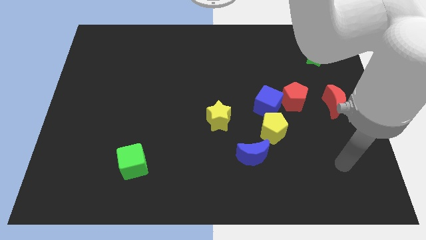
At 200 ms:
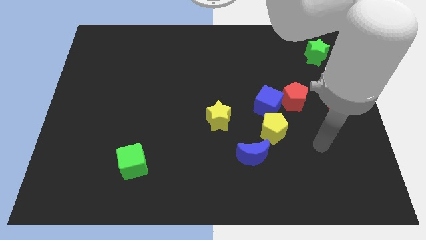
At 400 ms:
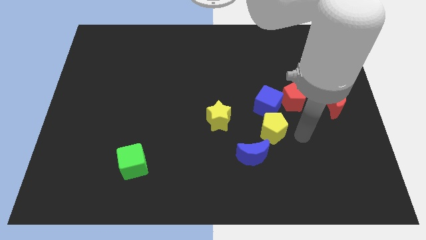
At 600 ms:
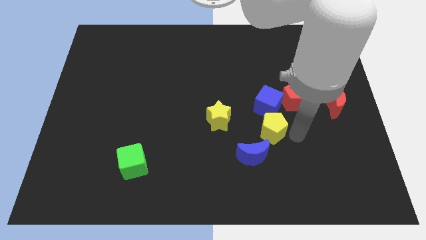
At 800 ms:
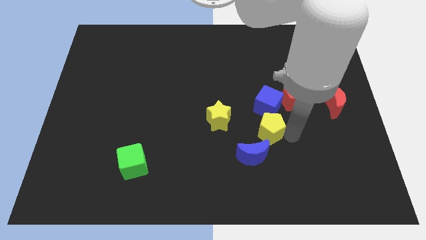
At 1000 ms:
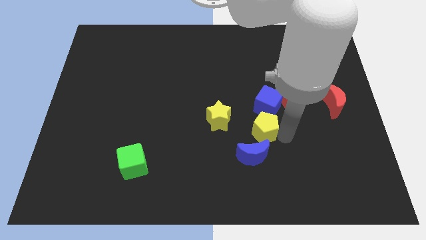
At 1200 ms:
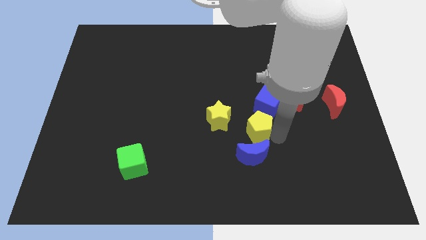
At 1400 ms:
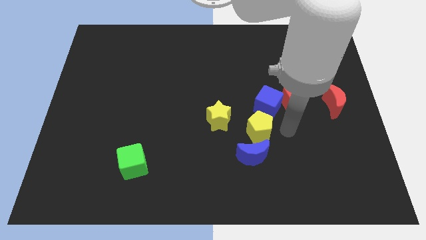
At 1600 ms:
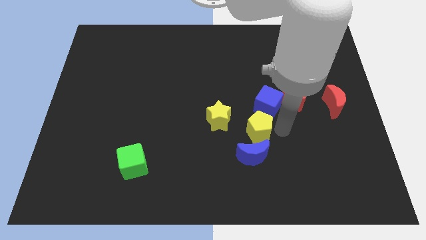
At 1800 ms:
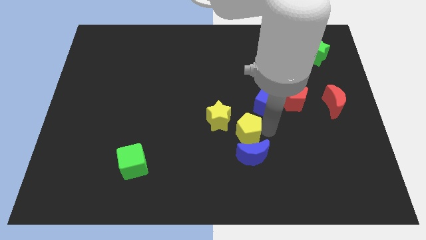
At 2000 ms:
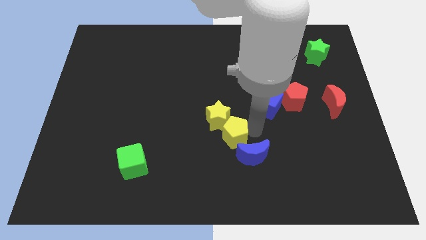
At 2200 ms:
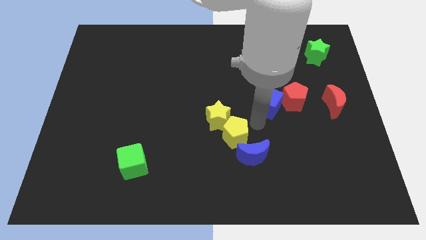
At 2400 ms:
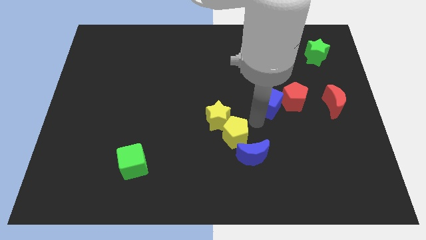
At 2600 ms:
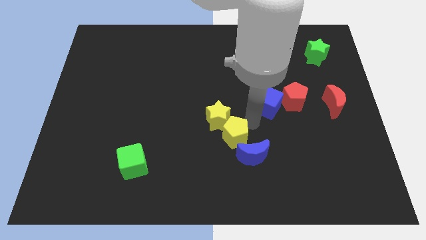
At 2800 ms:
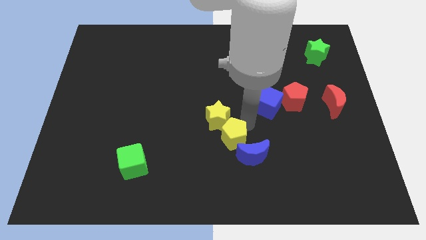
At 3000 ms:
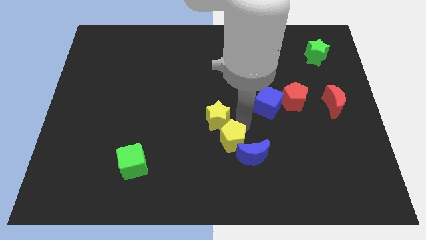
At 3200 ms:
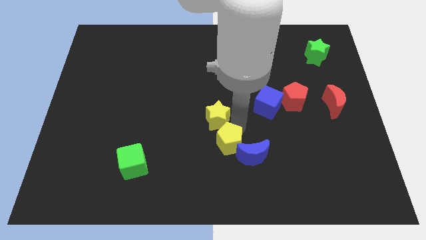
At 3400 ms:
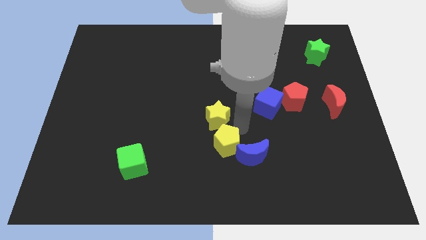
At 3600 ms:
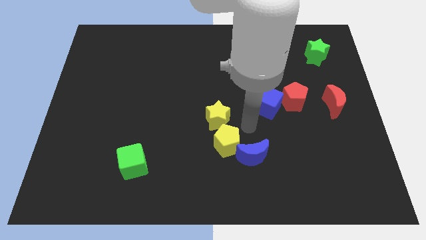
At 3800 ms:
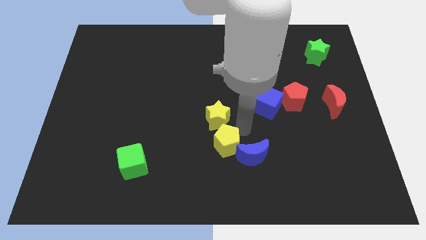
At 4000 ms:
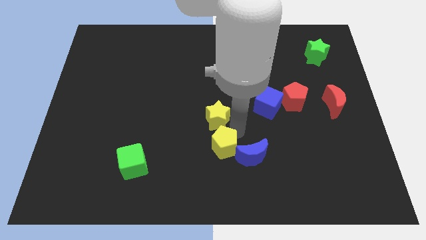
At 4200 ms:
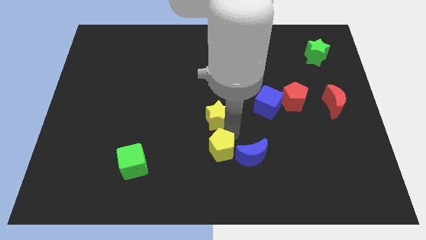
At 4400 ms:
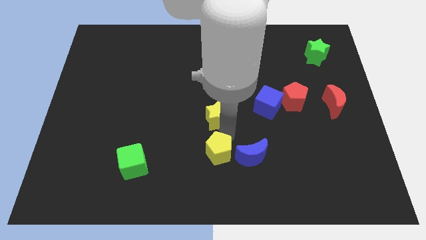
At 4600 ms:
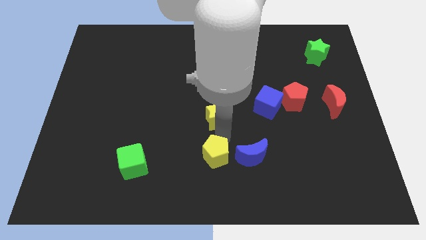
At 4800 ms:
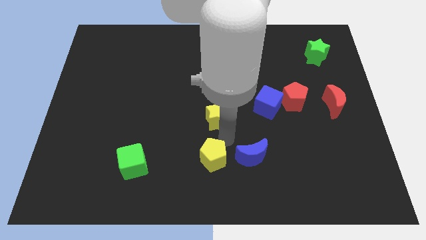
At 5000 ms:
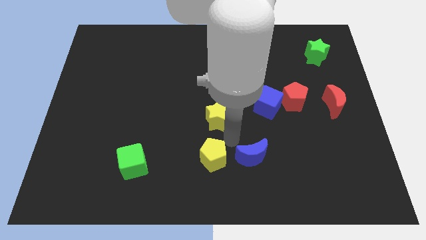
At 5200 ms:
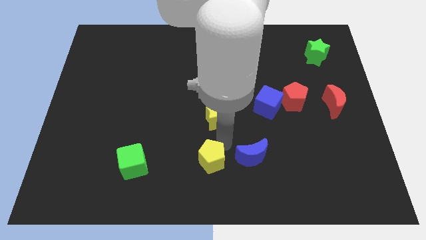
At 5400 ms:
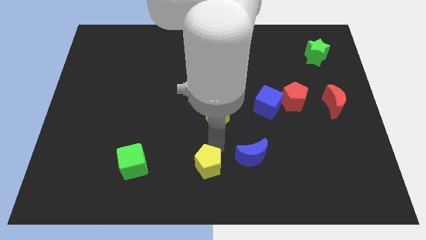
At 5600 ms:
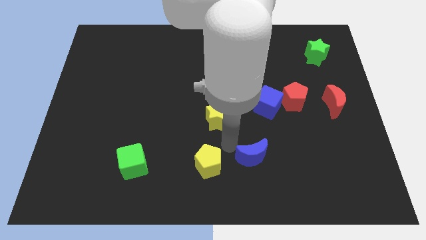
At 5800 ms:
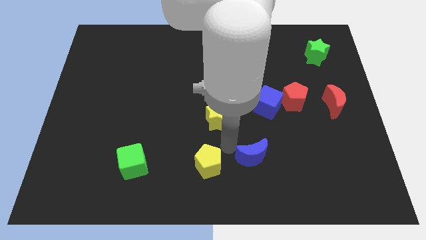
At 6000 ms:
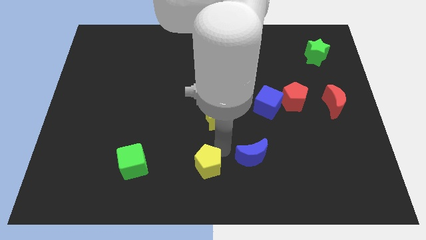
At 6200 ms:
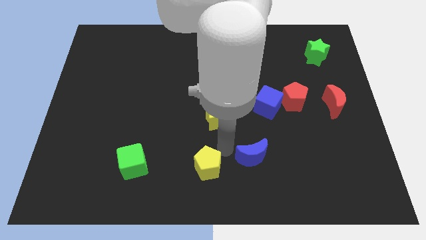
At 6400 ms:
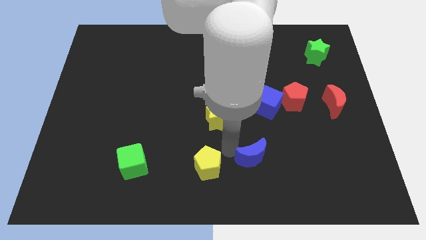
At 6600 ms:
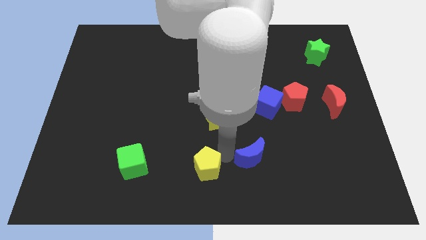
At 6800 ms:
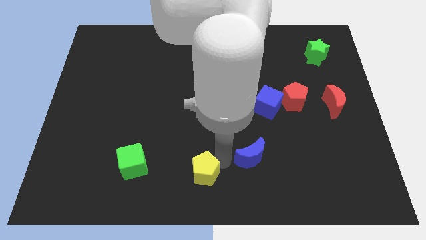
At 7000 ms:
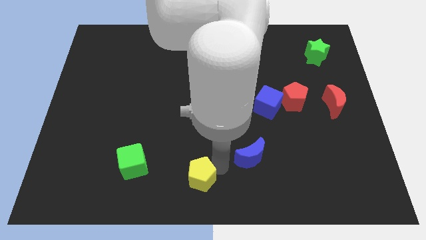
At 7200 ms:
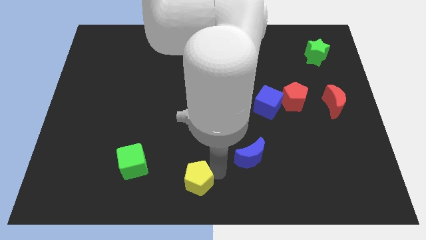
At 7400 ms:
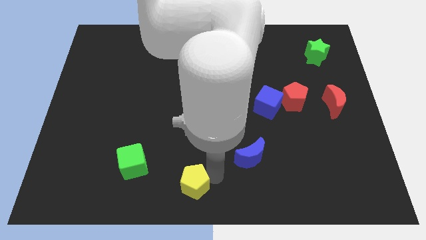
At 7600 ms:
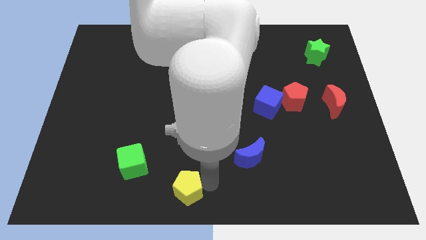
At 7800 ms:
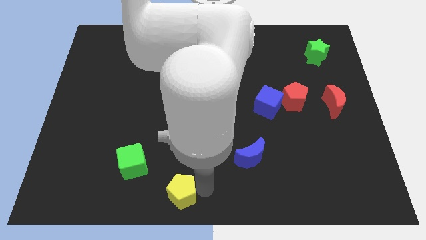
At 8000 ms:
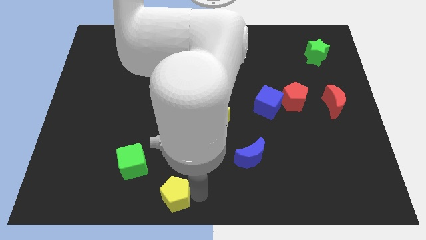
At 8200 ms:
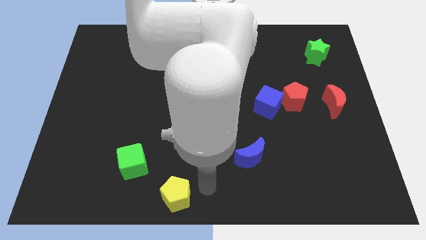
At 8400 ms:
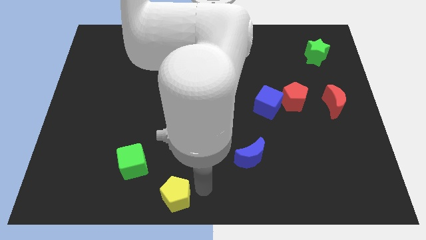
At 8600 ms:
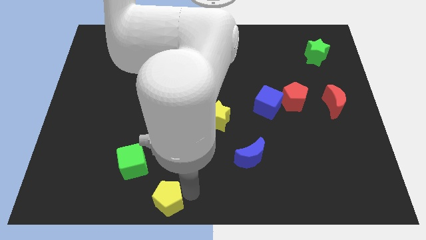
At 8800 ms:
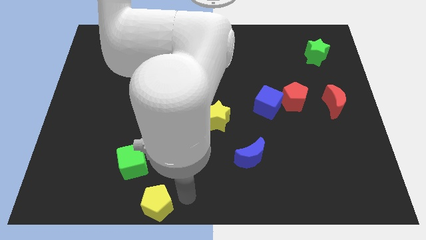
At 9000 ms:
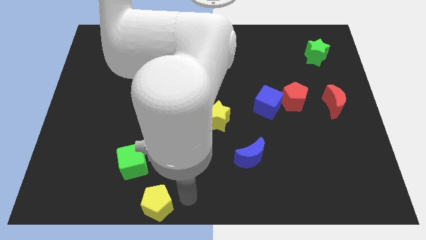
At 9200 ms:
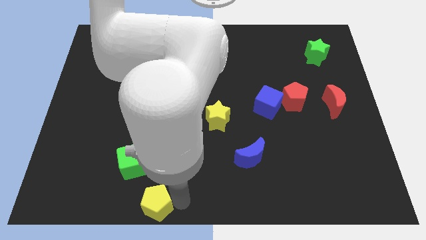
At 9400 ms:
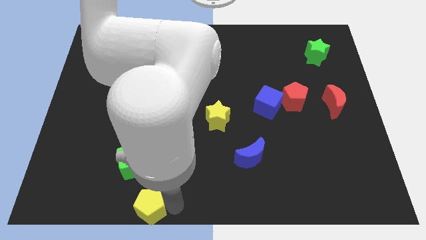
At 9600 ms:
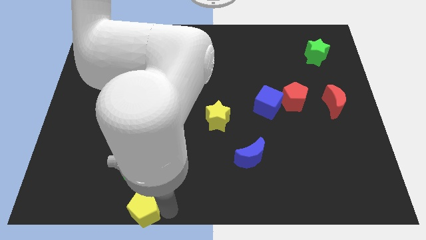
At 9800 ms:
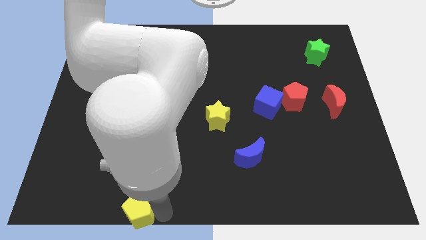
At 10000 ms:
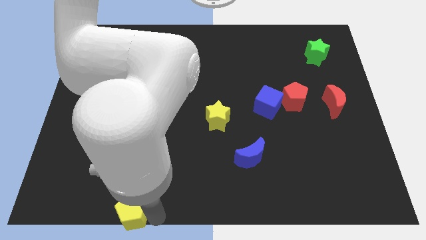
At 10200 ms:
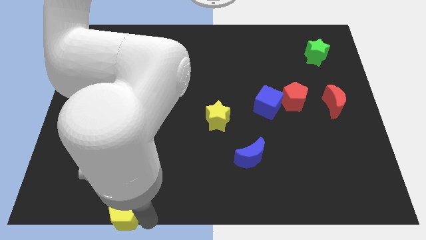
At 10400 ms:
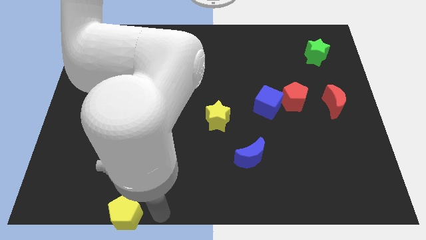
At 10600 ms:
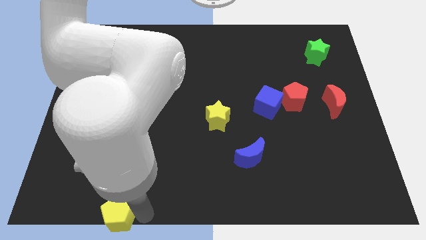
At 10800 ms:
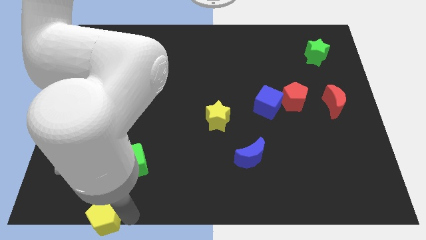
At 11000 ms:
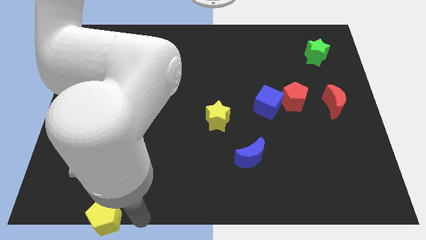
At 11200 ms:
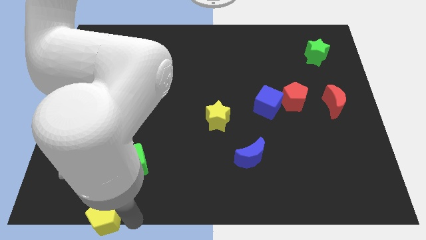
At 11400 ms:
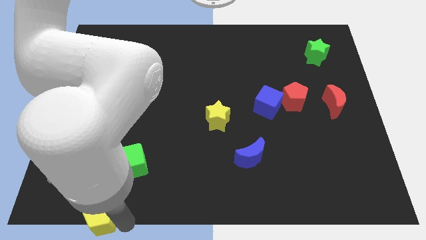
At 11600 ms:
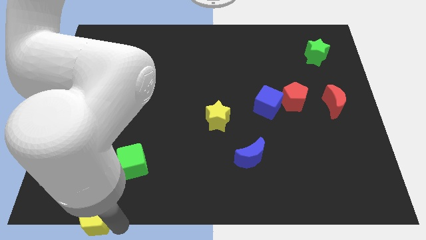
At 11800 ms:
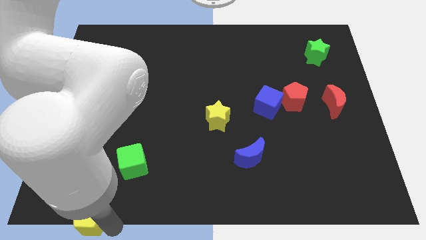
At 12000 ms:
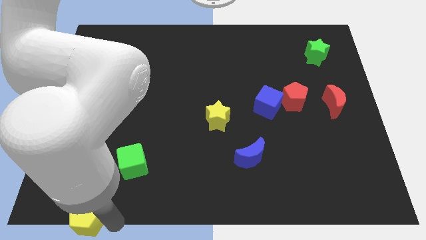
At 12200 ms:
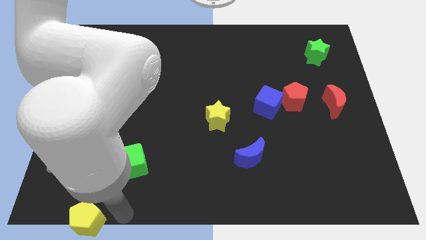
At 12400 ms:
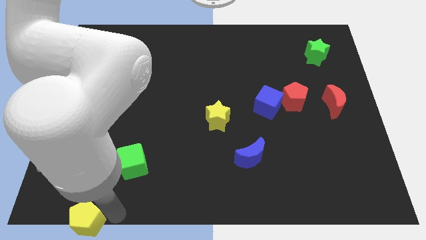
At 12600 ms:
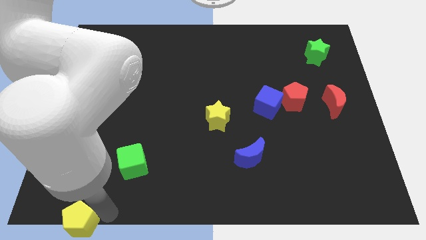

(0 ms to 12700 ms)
put the yellow pentagon to the bottom left of the board

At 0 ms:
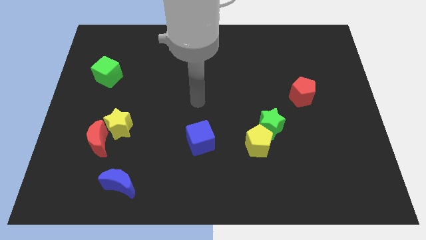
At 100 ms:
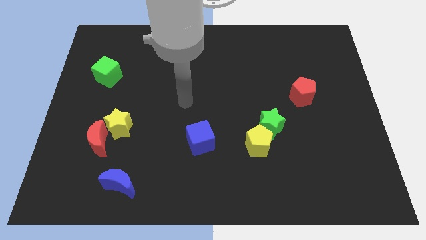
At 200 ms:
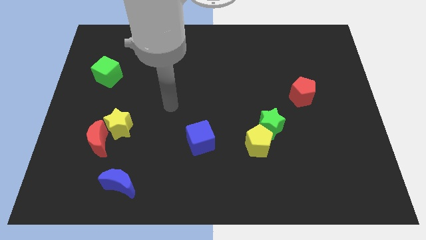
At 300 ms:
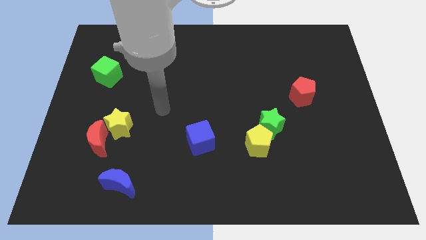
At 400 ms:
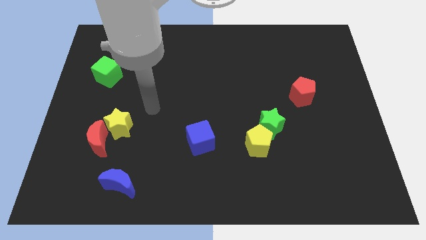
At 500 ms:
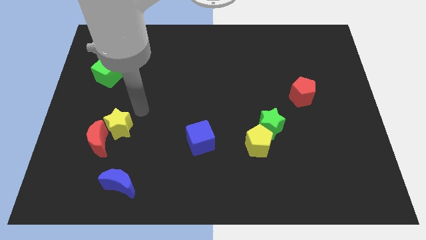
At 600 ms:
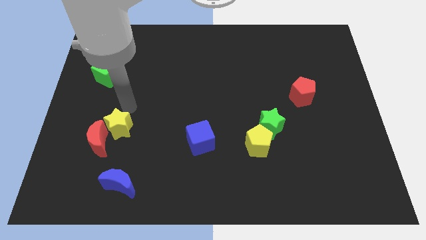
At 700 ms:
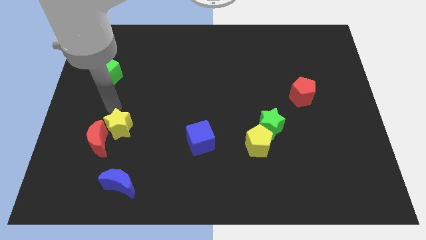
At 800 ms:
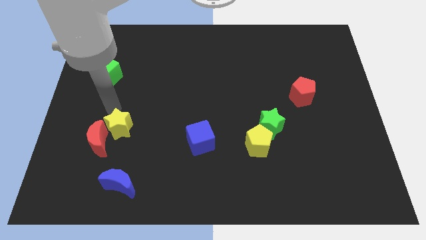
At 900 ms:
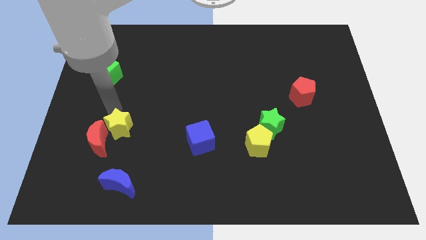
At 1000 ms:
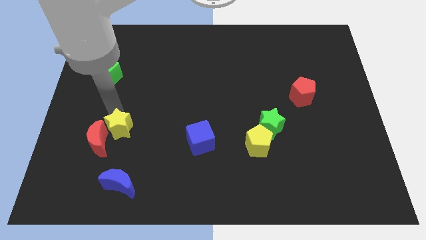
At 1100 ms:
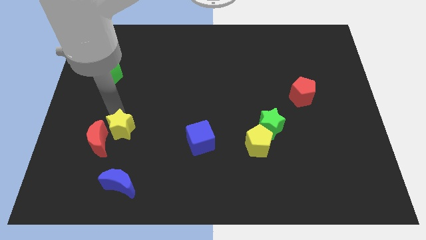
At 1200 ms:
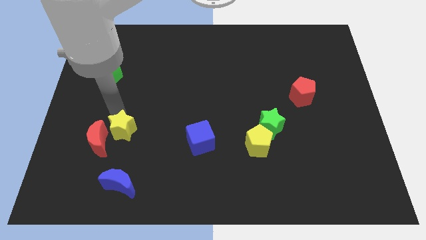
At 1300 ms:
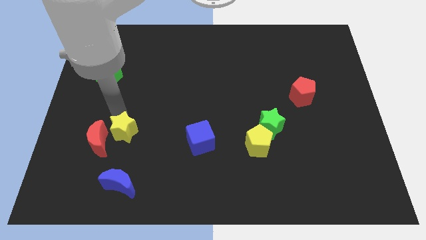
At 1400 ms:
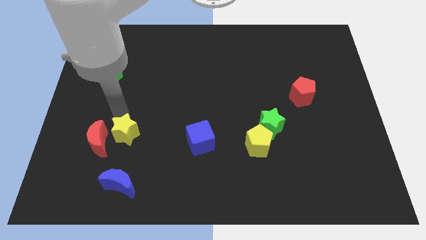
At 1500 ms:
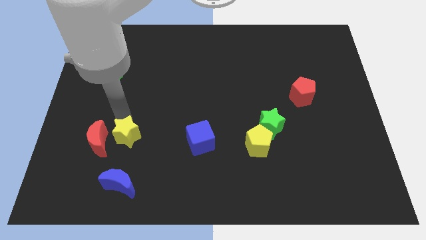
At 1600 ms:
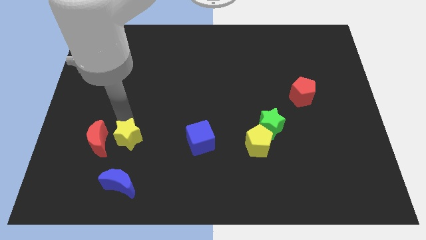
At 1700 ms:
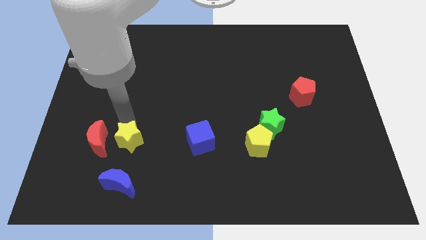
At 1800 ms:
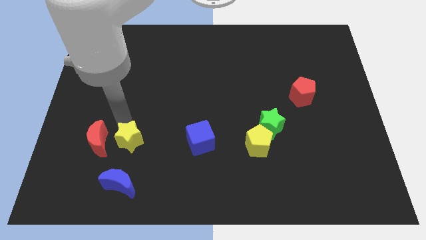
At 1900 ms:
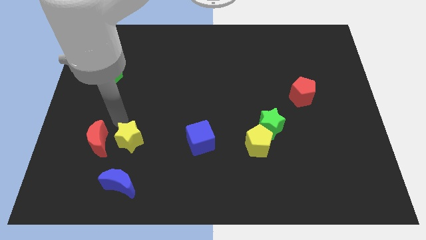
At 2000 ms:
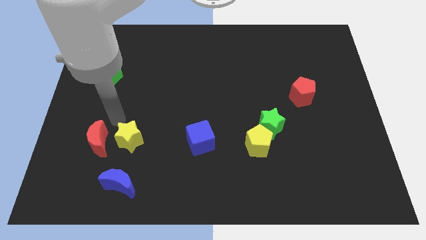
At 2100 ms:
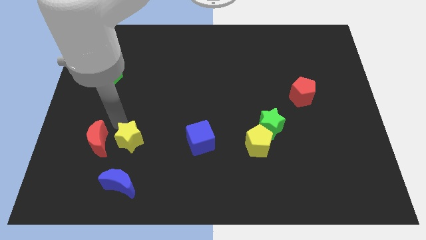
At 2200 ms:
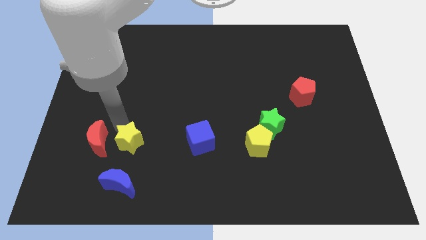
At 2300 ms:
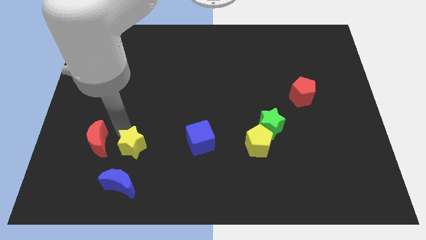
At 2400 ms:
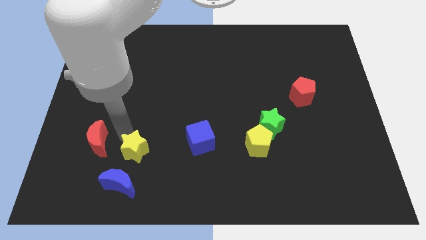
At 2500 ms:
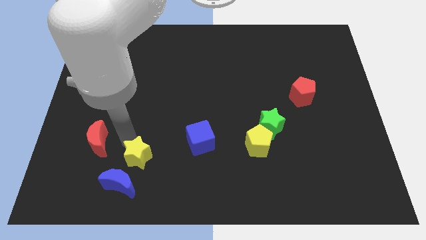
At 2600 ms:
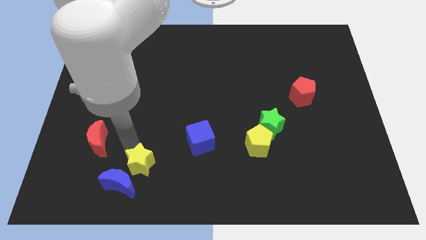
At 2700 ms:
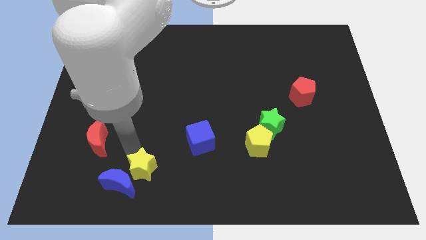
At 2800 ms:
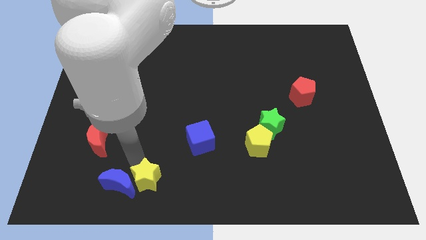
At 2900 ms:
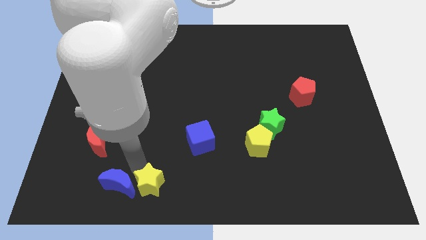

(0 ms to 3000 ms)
put the yellow star to the bottom
